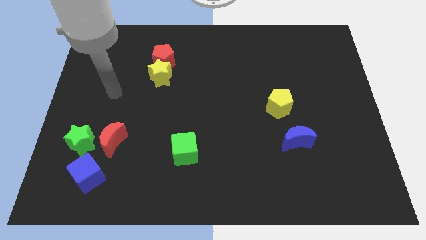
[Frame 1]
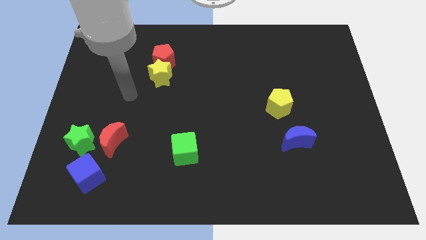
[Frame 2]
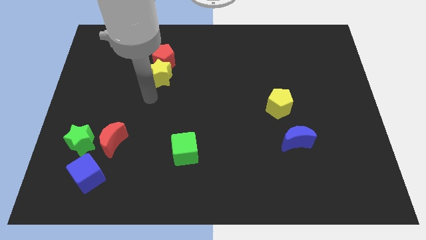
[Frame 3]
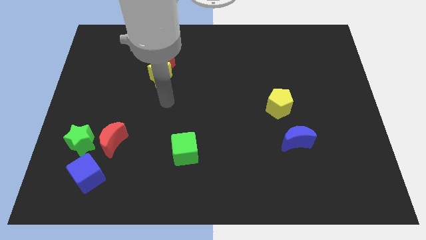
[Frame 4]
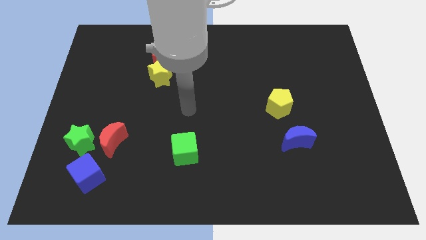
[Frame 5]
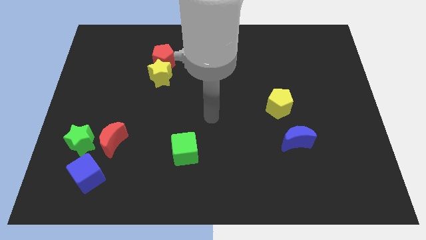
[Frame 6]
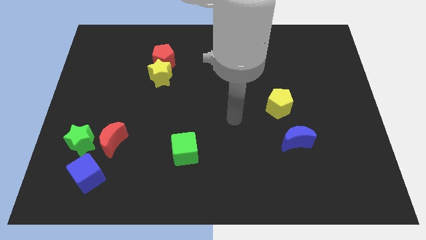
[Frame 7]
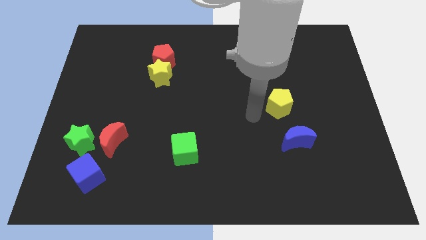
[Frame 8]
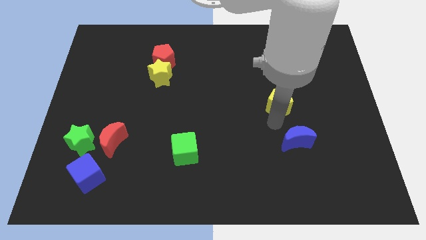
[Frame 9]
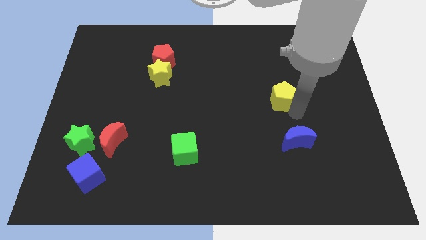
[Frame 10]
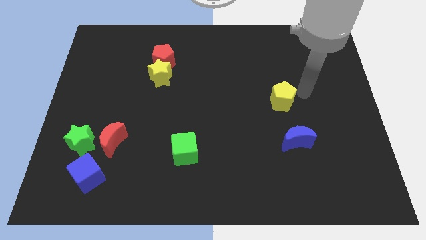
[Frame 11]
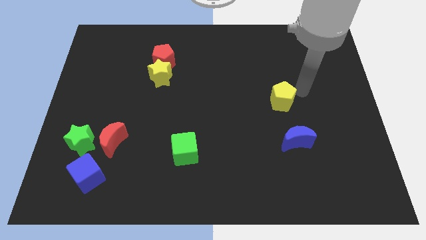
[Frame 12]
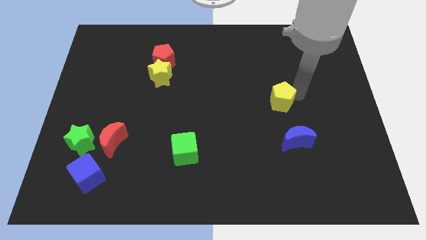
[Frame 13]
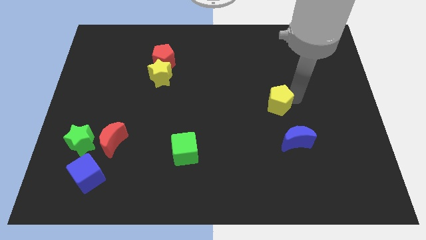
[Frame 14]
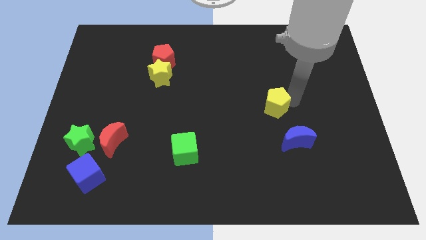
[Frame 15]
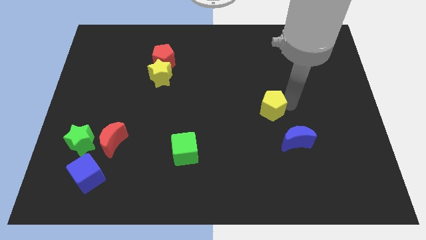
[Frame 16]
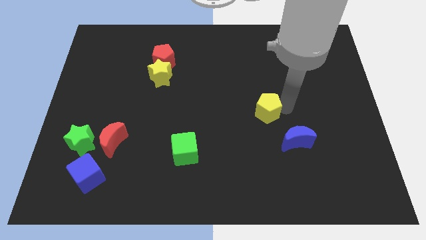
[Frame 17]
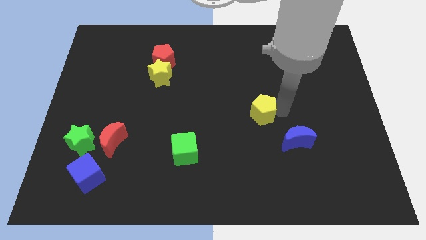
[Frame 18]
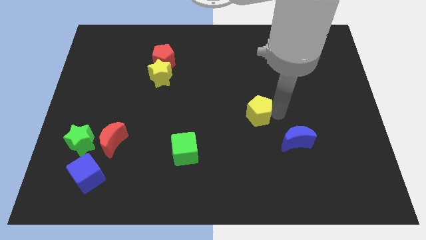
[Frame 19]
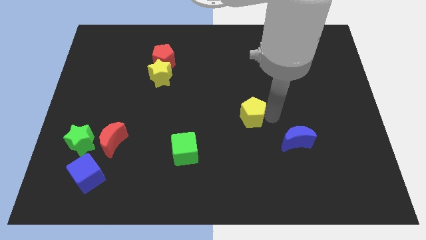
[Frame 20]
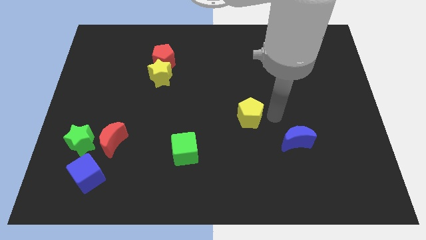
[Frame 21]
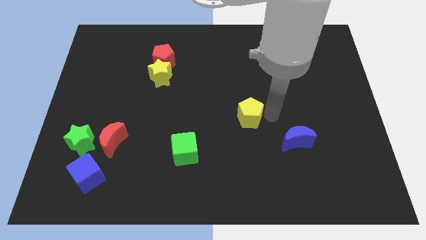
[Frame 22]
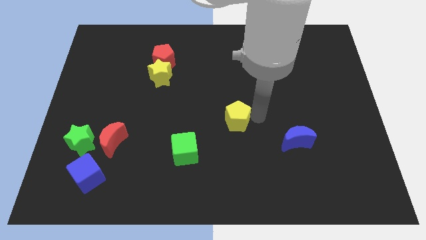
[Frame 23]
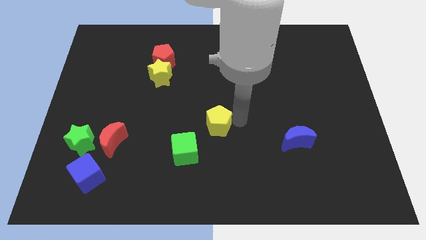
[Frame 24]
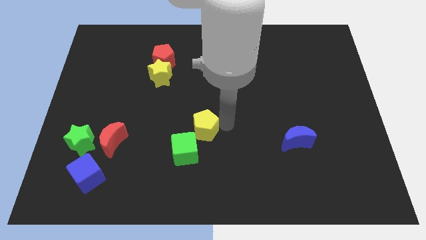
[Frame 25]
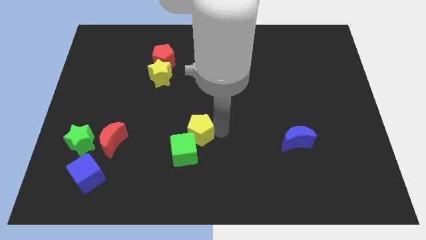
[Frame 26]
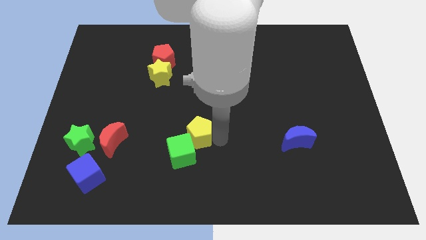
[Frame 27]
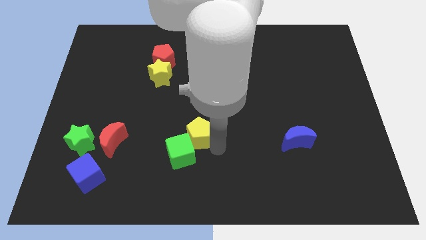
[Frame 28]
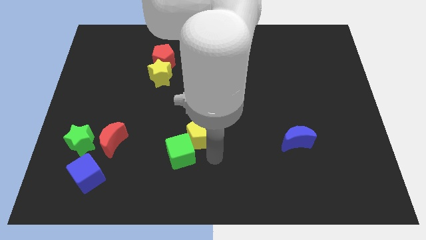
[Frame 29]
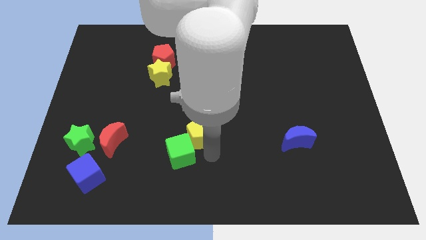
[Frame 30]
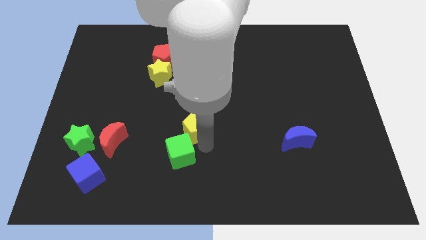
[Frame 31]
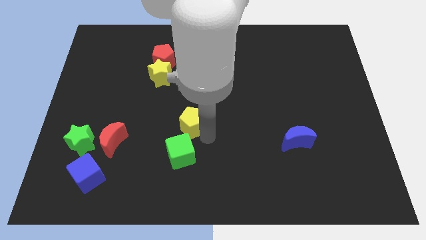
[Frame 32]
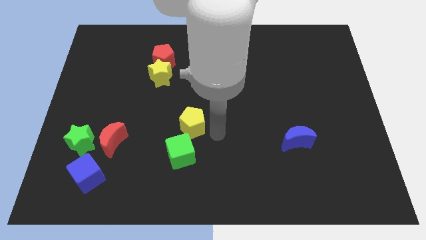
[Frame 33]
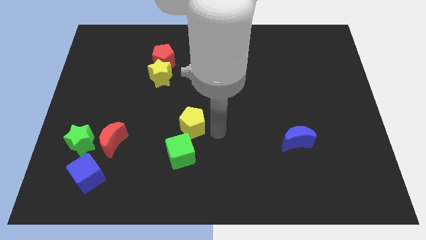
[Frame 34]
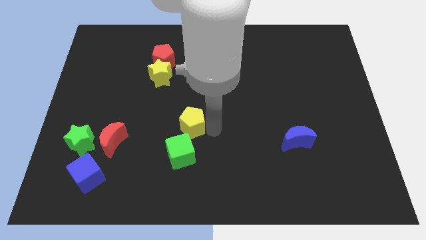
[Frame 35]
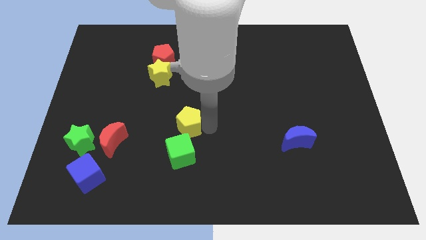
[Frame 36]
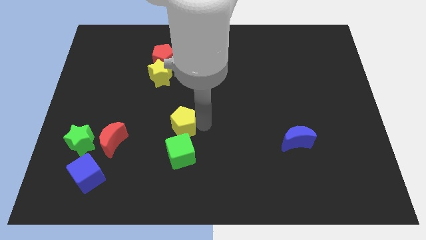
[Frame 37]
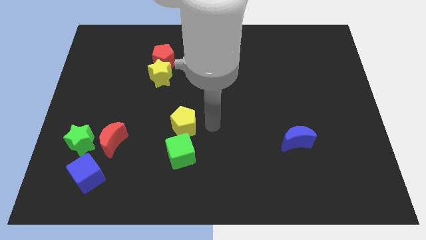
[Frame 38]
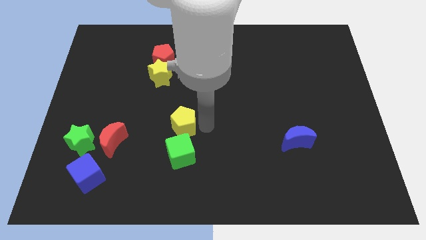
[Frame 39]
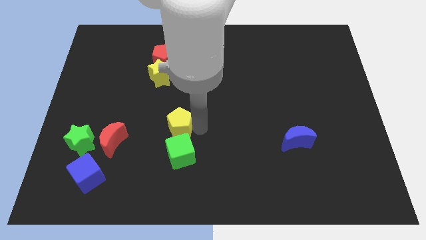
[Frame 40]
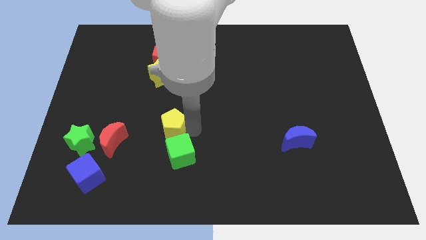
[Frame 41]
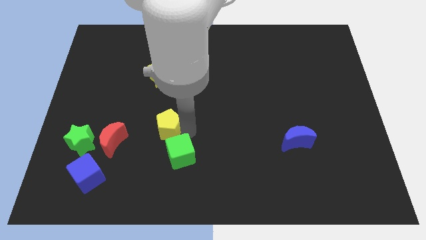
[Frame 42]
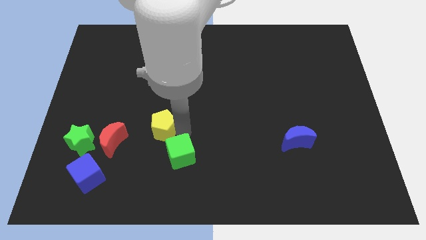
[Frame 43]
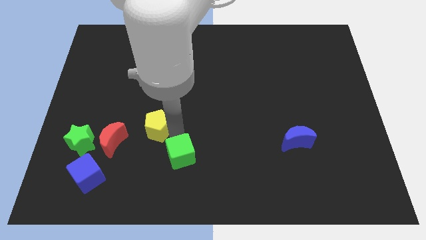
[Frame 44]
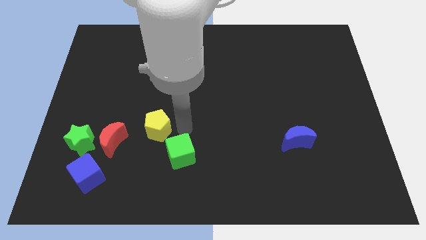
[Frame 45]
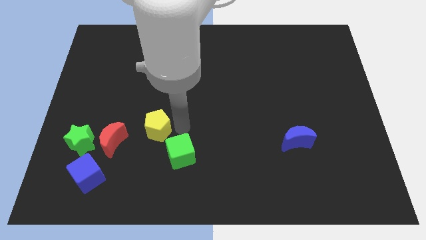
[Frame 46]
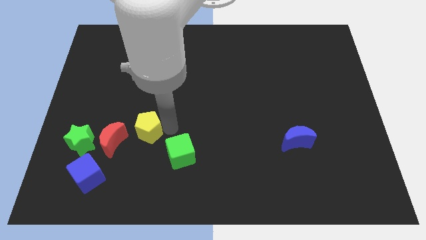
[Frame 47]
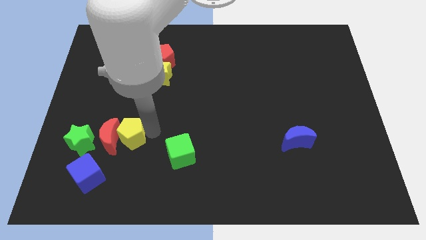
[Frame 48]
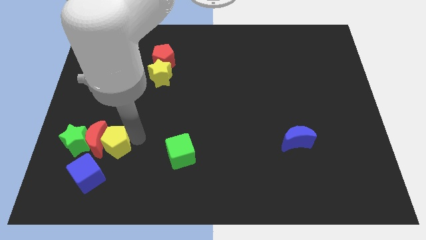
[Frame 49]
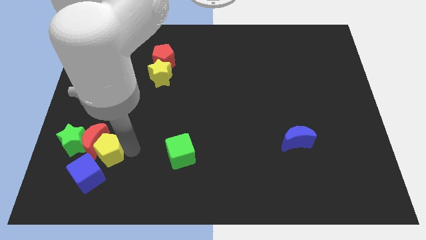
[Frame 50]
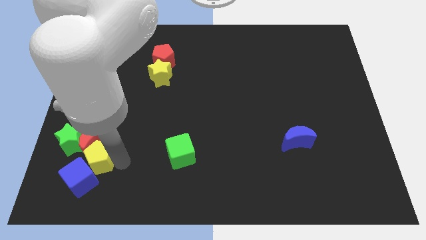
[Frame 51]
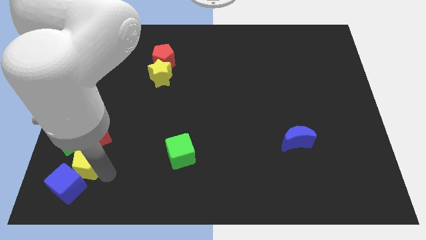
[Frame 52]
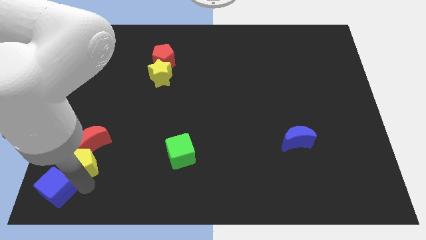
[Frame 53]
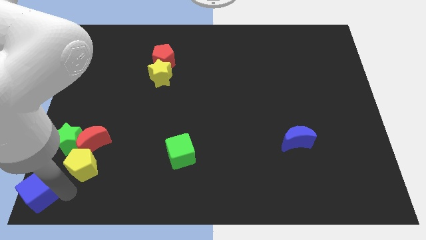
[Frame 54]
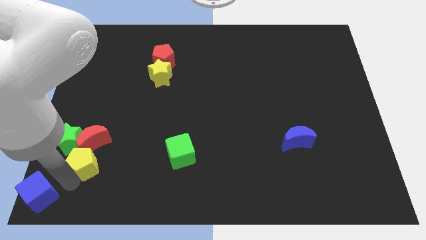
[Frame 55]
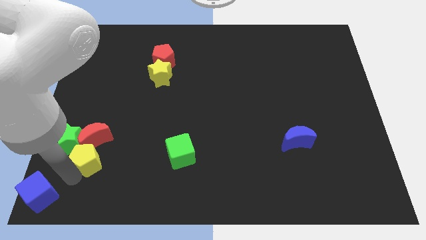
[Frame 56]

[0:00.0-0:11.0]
push the yellow pentagon close to the green star

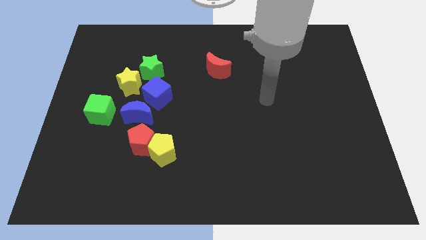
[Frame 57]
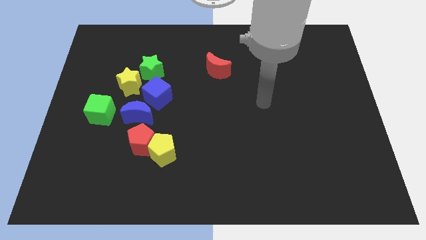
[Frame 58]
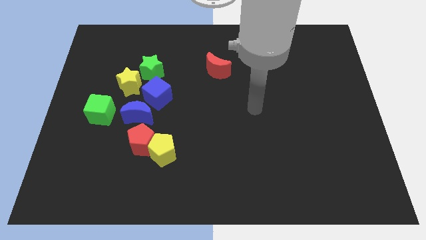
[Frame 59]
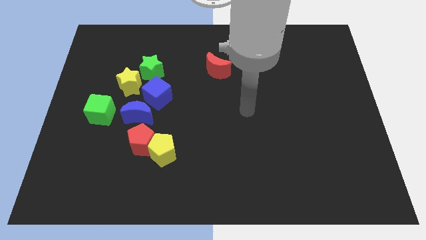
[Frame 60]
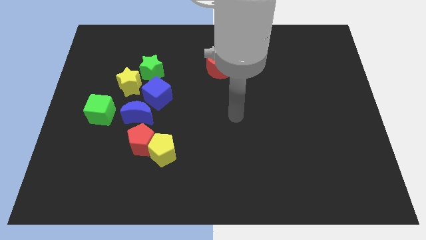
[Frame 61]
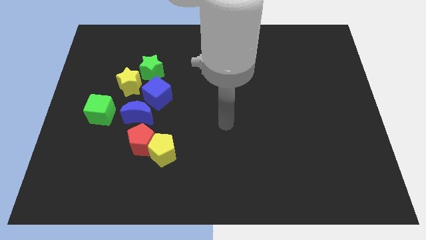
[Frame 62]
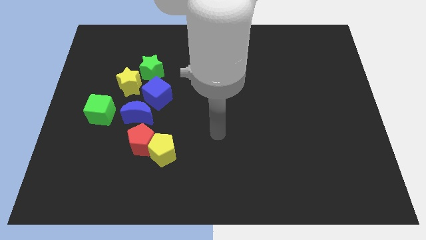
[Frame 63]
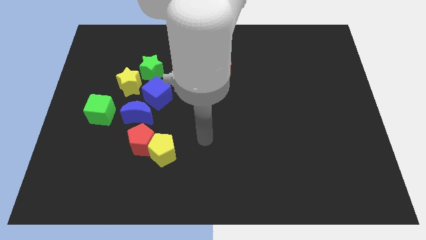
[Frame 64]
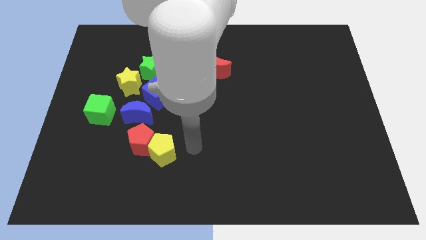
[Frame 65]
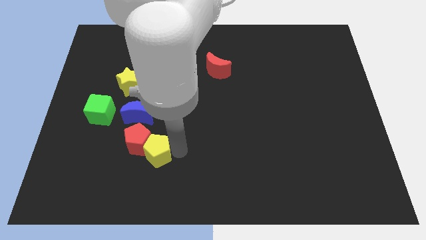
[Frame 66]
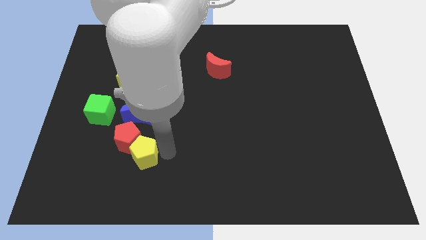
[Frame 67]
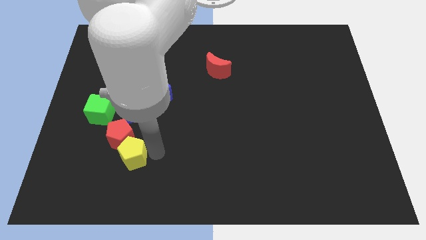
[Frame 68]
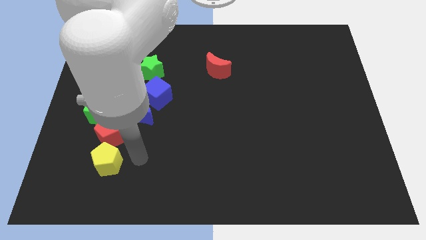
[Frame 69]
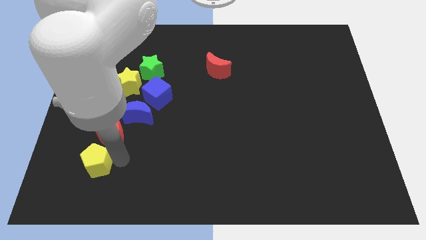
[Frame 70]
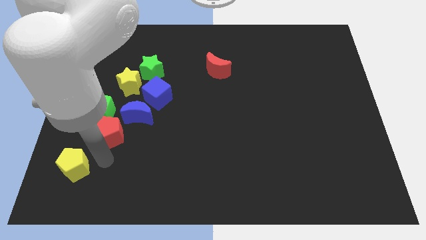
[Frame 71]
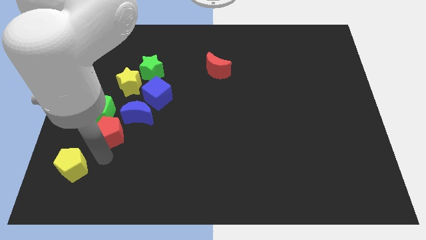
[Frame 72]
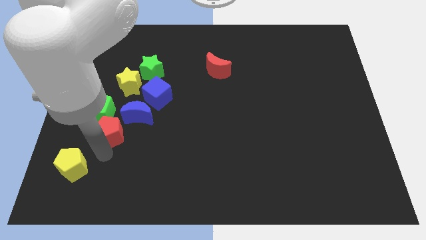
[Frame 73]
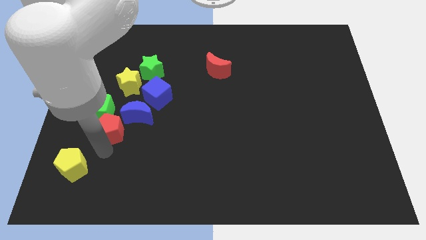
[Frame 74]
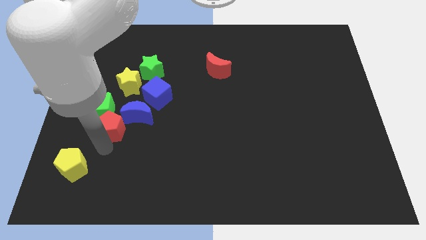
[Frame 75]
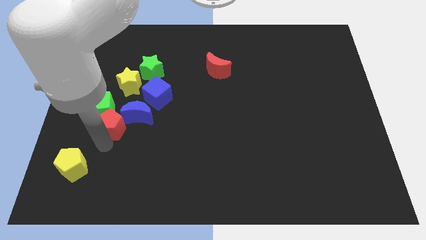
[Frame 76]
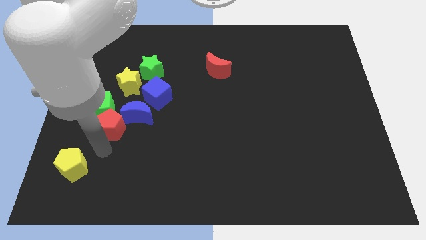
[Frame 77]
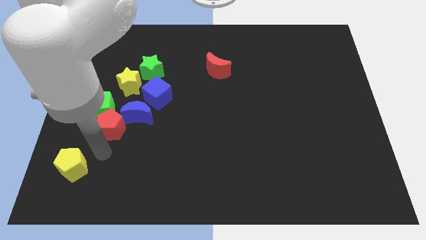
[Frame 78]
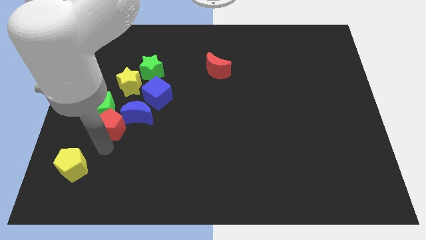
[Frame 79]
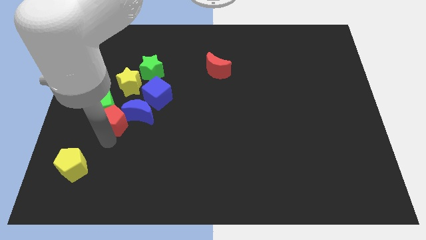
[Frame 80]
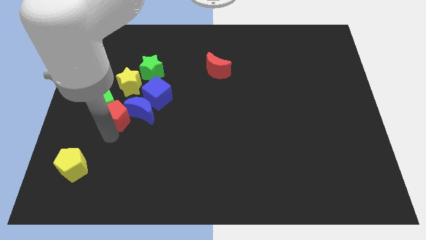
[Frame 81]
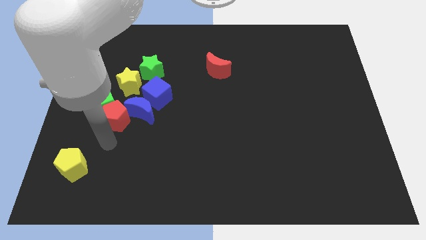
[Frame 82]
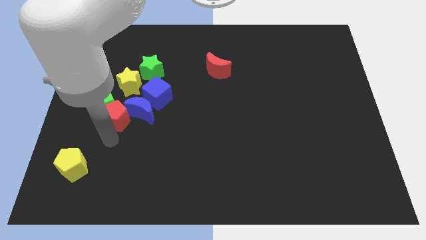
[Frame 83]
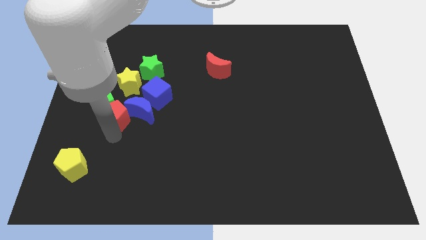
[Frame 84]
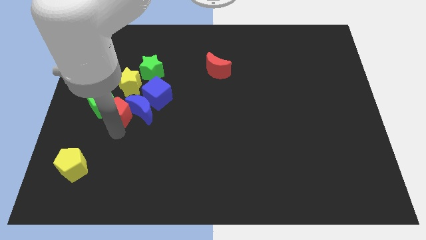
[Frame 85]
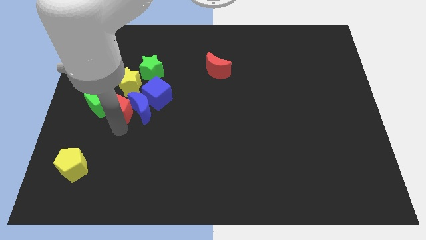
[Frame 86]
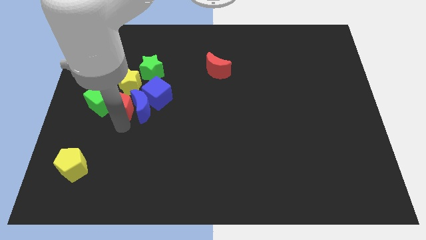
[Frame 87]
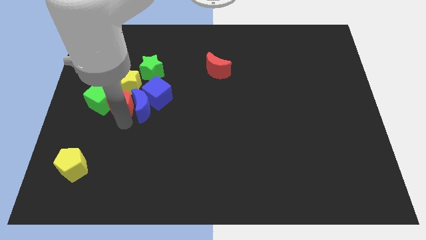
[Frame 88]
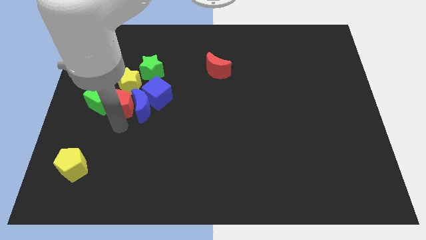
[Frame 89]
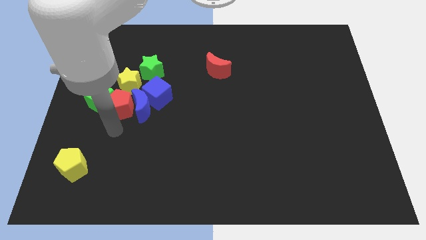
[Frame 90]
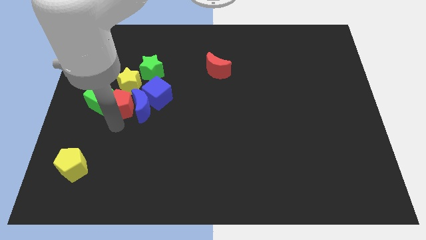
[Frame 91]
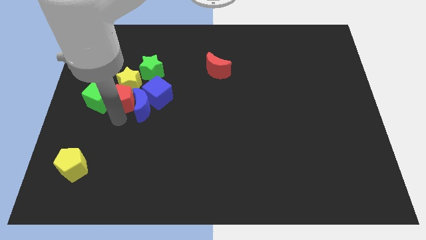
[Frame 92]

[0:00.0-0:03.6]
slide the red pentagon towards the yellow star
